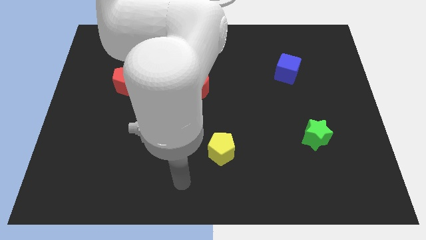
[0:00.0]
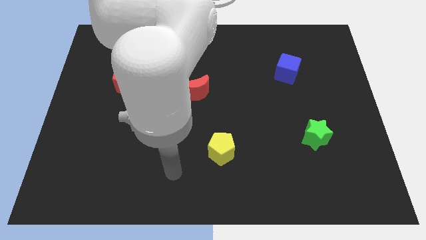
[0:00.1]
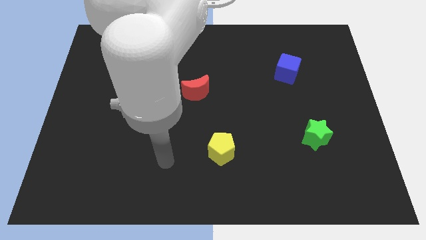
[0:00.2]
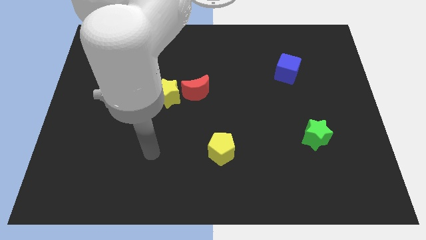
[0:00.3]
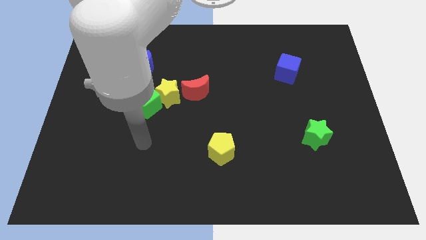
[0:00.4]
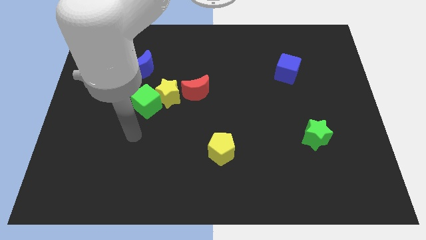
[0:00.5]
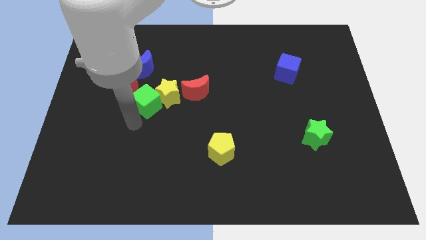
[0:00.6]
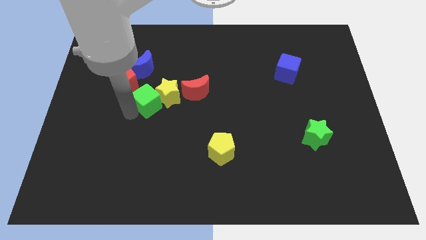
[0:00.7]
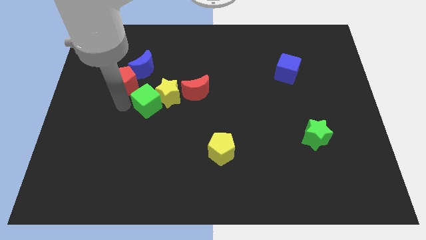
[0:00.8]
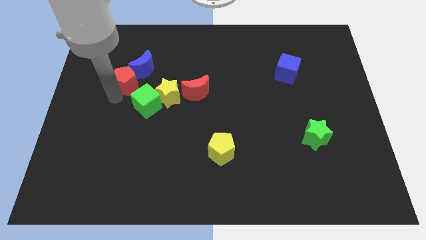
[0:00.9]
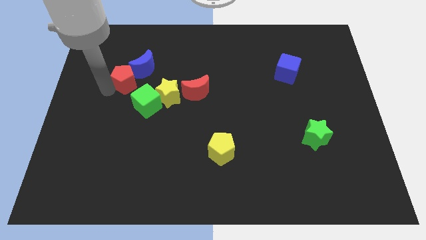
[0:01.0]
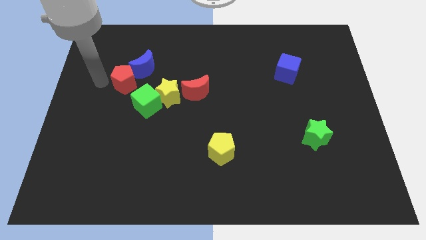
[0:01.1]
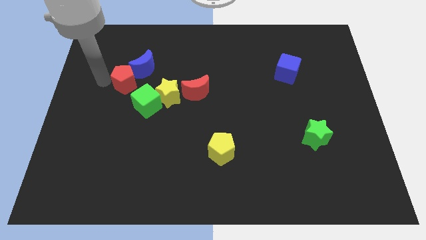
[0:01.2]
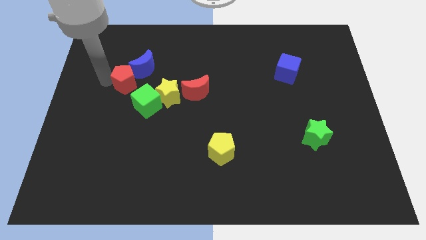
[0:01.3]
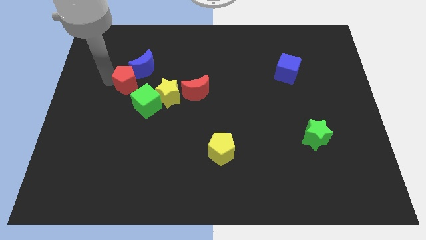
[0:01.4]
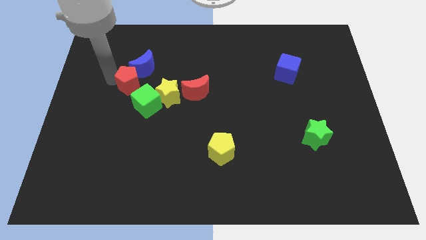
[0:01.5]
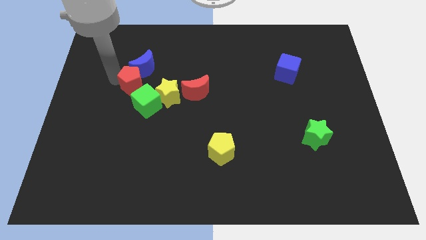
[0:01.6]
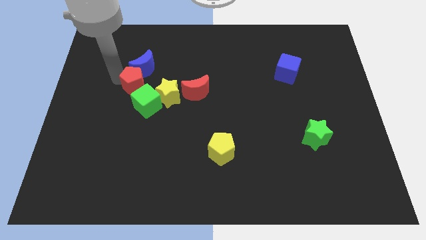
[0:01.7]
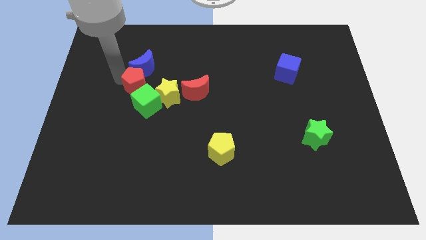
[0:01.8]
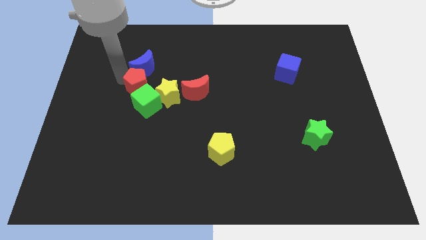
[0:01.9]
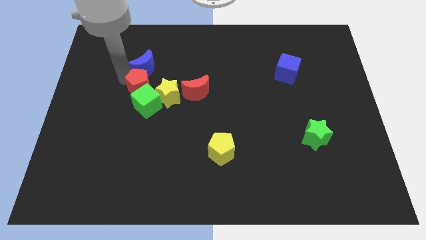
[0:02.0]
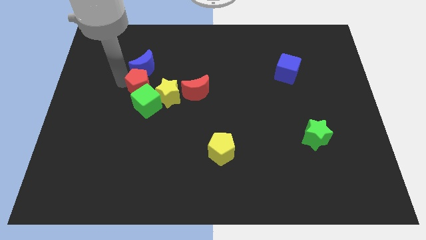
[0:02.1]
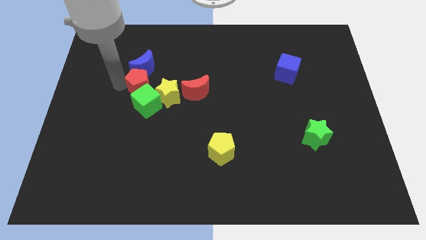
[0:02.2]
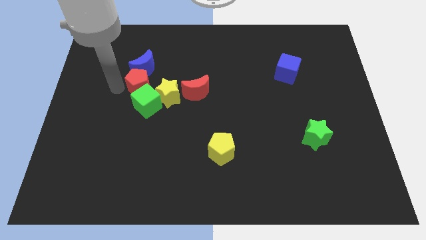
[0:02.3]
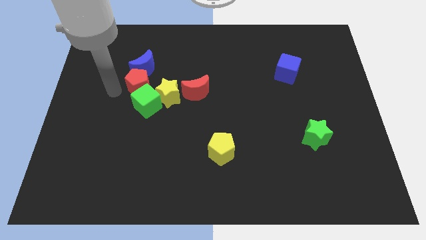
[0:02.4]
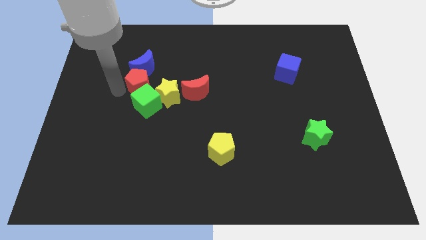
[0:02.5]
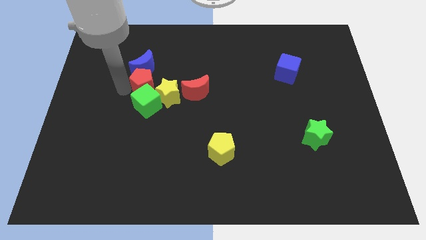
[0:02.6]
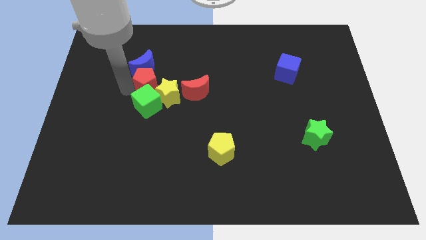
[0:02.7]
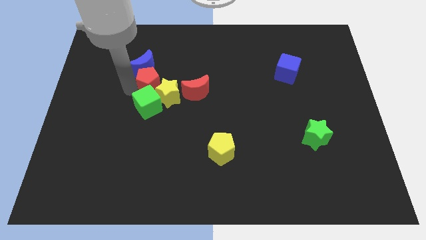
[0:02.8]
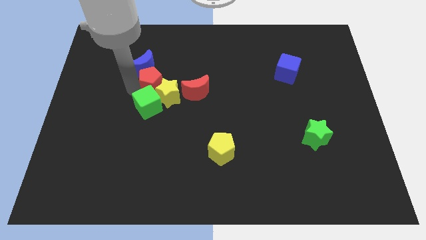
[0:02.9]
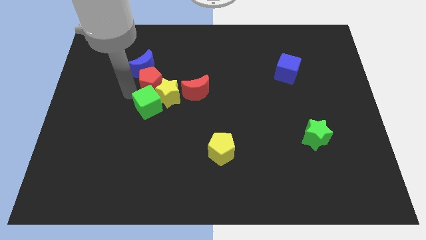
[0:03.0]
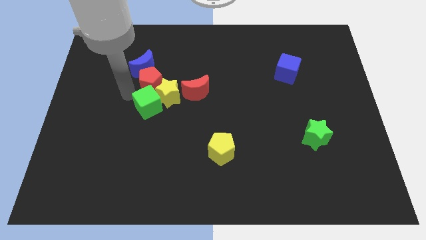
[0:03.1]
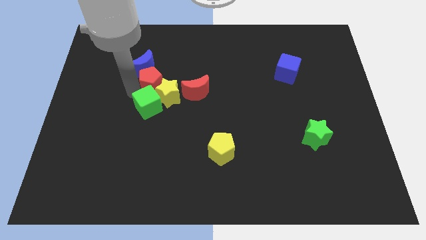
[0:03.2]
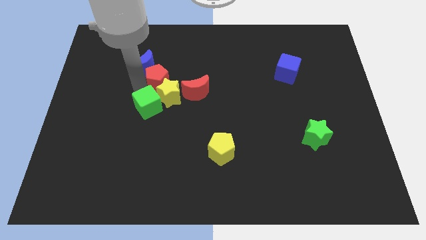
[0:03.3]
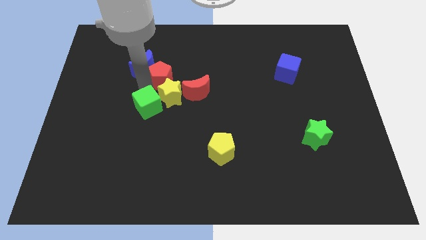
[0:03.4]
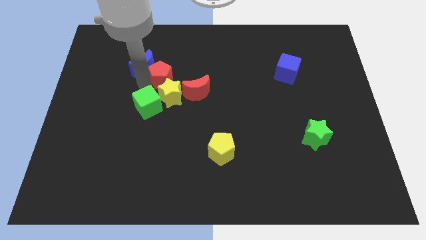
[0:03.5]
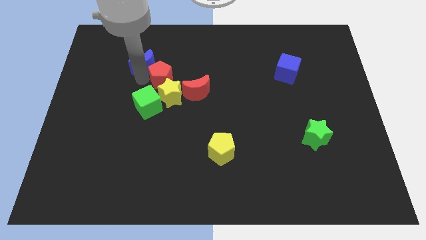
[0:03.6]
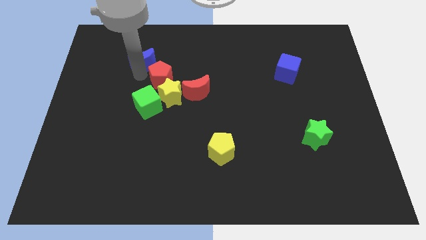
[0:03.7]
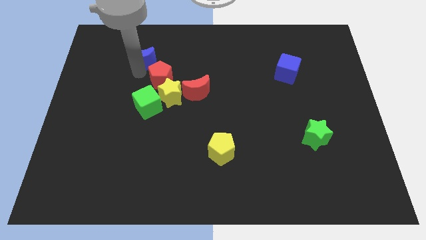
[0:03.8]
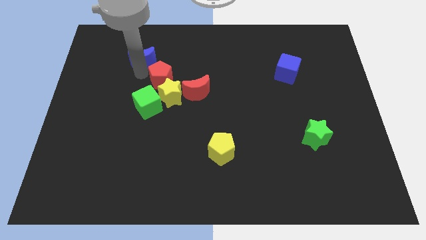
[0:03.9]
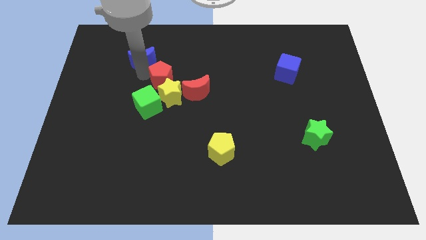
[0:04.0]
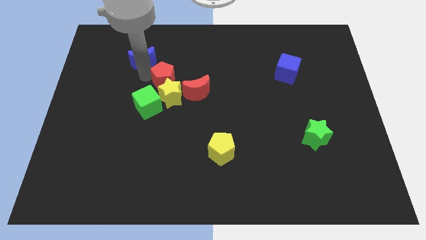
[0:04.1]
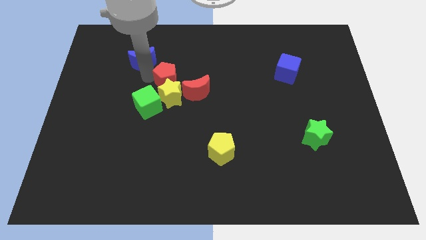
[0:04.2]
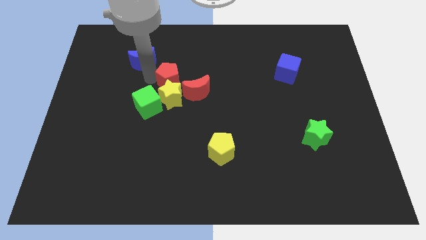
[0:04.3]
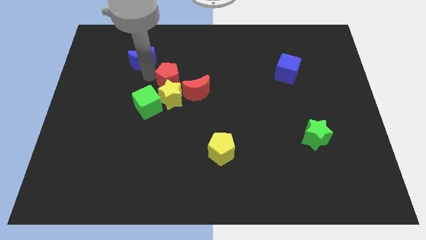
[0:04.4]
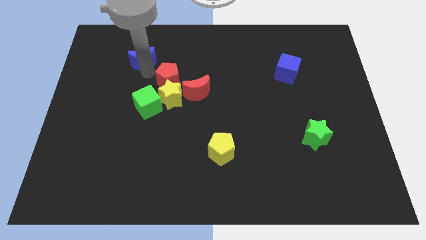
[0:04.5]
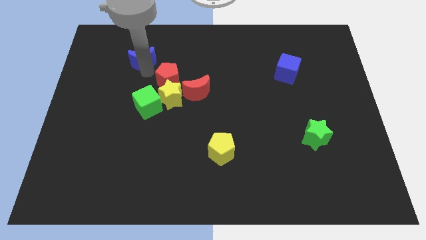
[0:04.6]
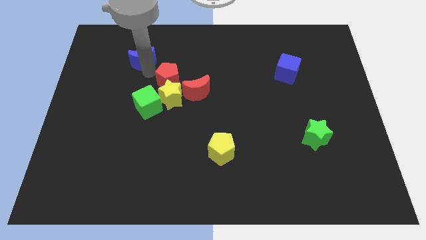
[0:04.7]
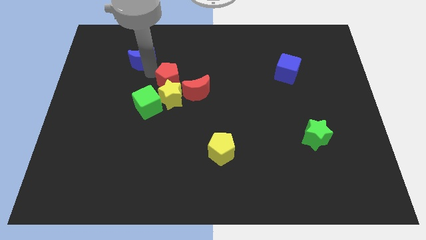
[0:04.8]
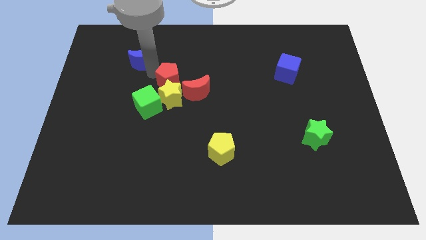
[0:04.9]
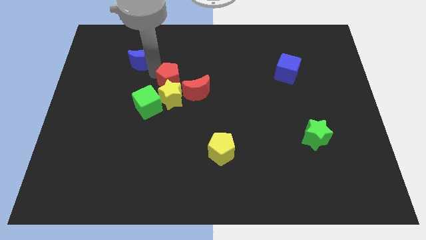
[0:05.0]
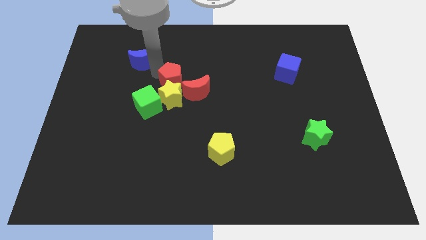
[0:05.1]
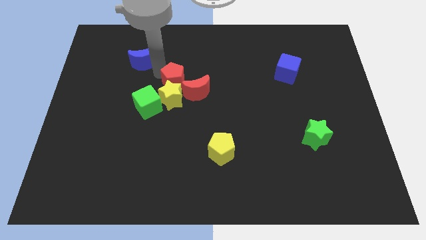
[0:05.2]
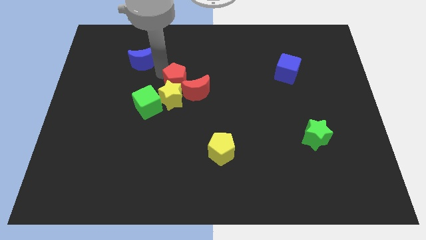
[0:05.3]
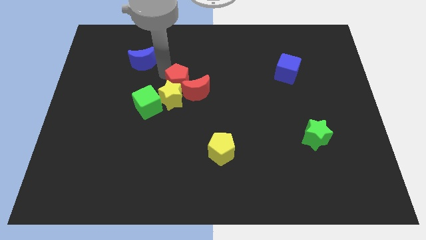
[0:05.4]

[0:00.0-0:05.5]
put the red pentagon towards the red moon

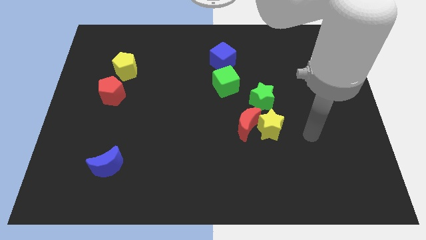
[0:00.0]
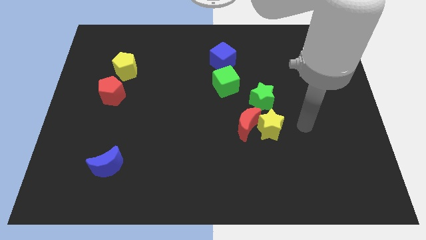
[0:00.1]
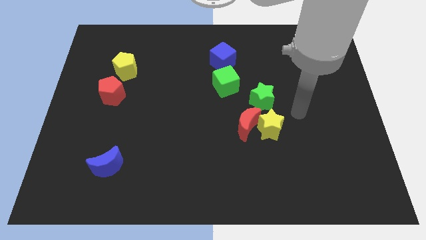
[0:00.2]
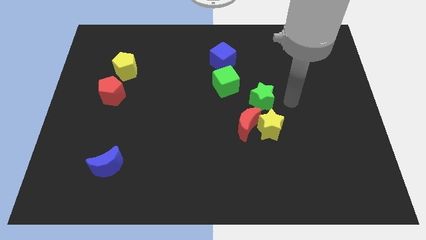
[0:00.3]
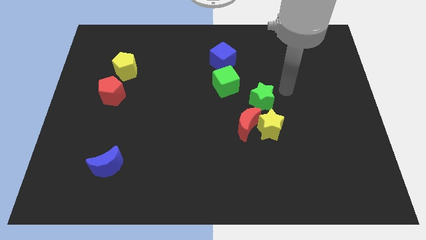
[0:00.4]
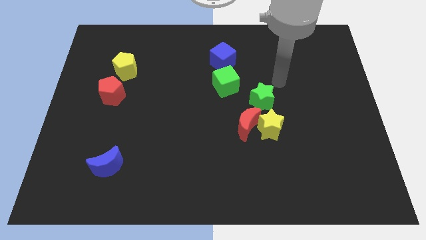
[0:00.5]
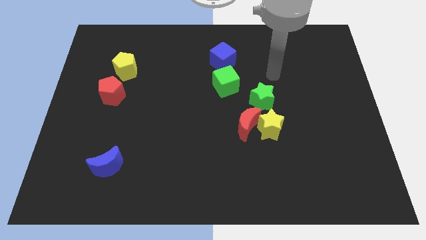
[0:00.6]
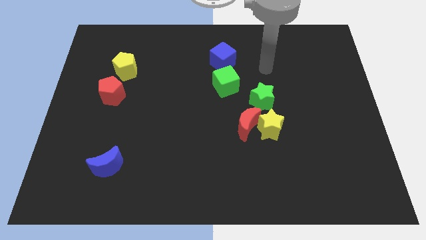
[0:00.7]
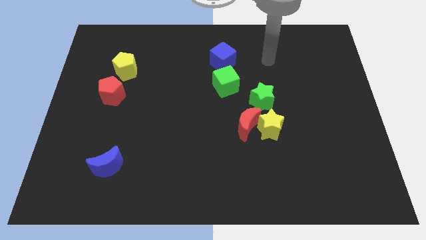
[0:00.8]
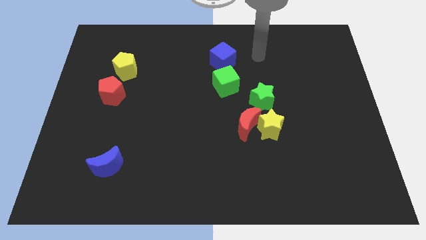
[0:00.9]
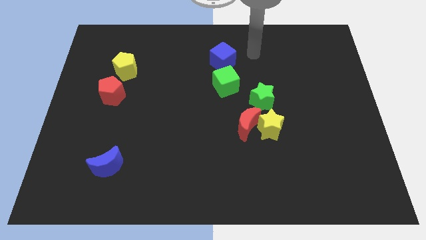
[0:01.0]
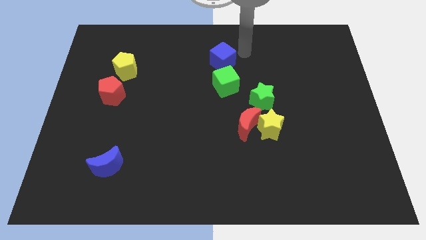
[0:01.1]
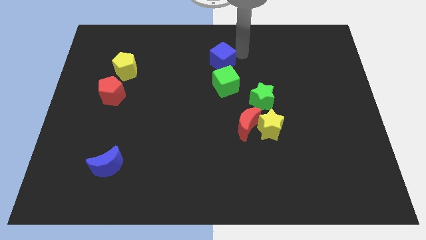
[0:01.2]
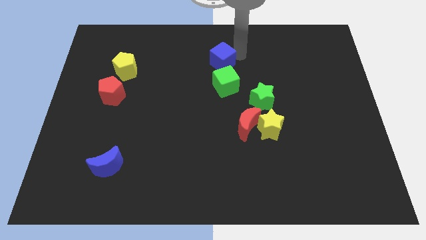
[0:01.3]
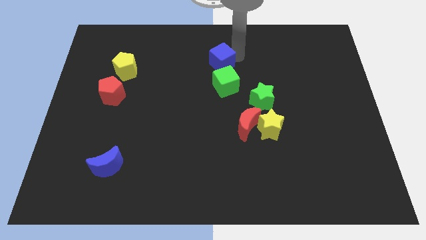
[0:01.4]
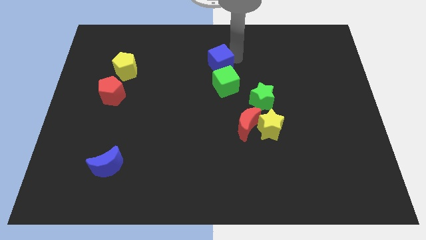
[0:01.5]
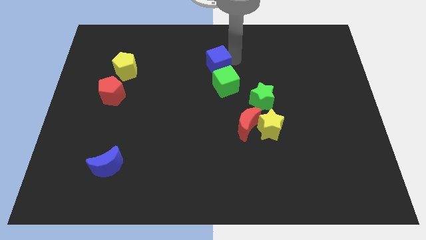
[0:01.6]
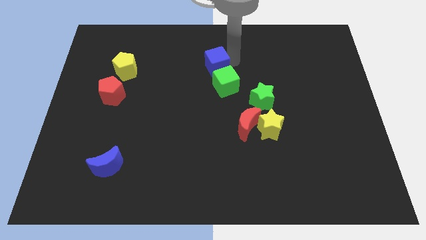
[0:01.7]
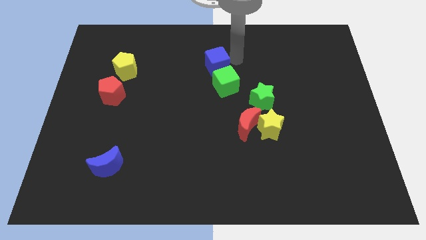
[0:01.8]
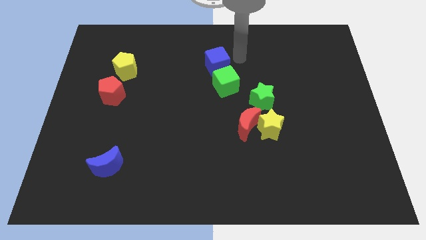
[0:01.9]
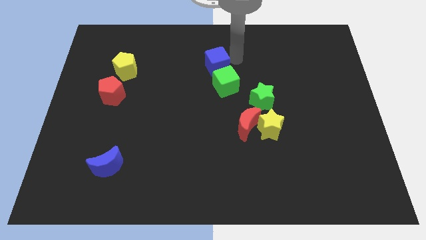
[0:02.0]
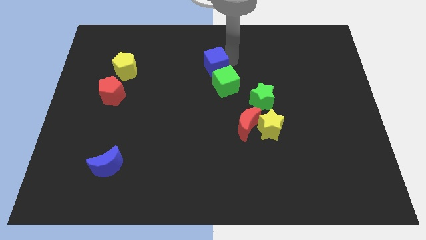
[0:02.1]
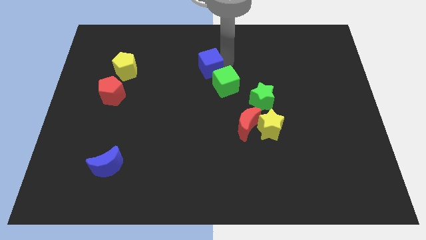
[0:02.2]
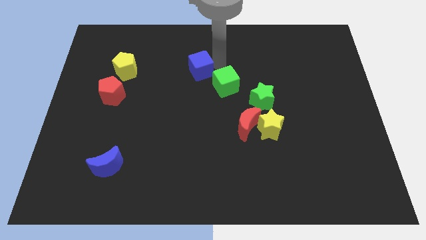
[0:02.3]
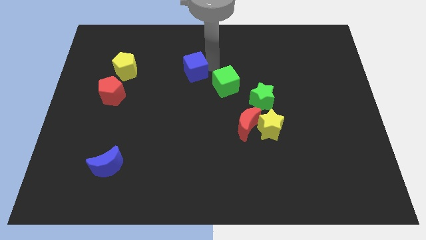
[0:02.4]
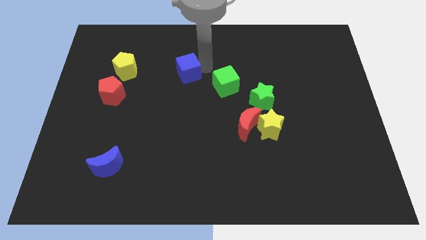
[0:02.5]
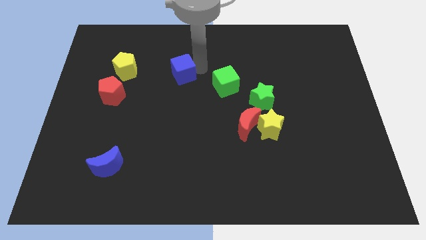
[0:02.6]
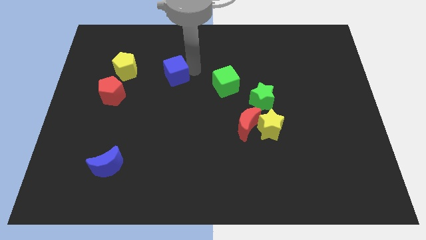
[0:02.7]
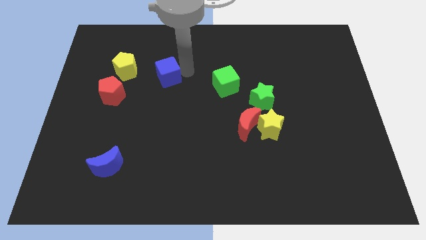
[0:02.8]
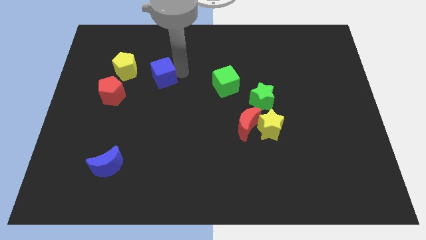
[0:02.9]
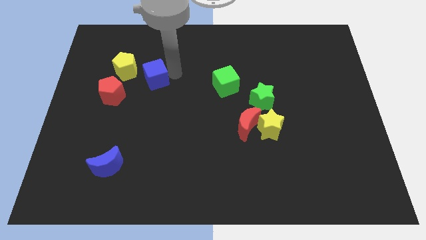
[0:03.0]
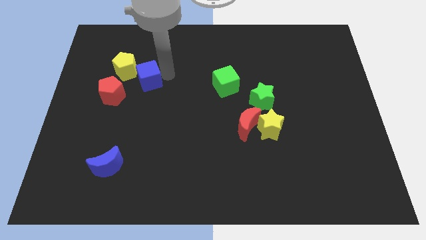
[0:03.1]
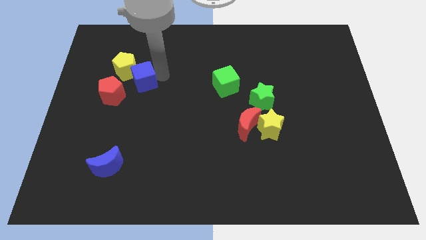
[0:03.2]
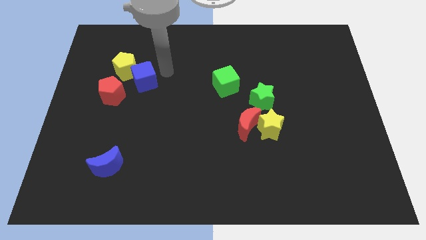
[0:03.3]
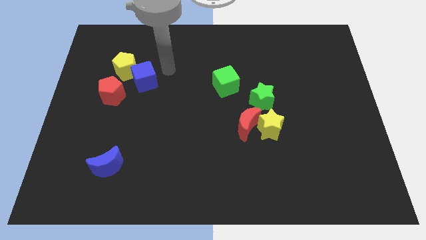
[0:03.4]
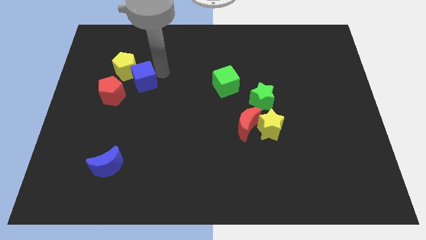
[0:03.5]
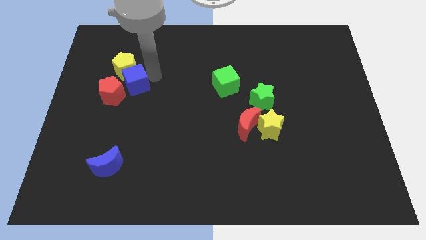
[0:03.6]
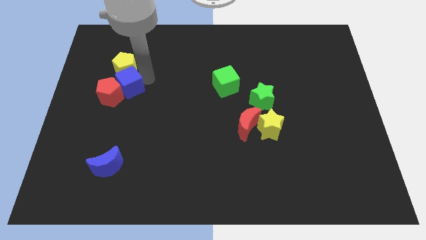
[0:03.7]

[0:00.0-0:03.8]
push the blue cube close to the red pentagon
